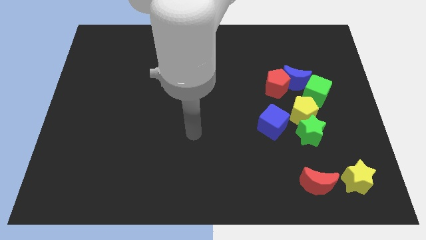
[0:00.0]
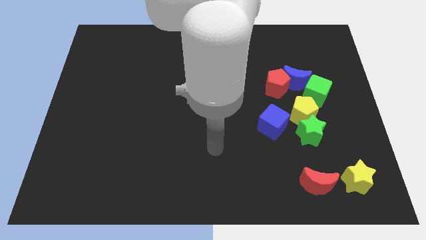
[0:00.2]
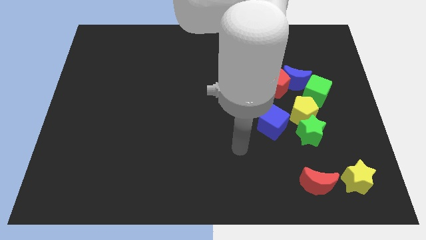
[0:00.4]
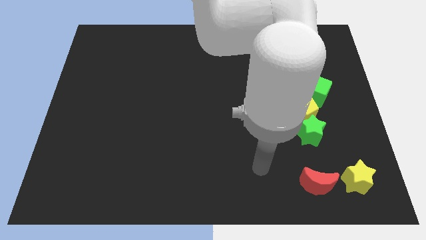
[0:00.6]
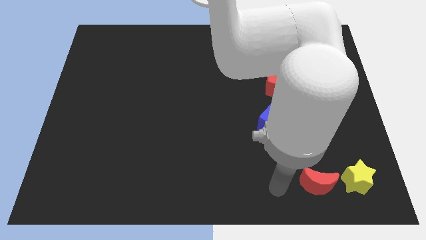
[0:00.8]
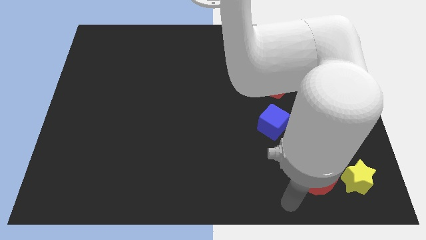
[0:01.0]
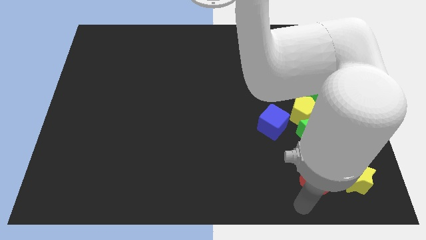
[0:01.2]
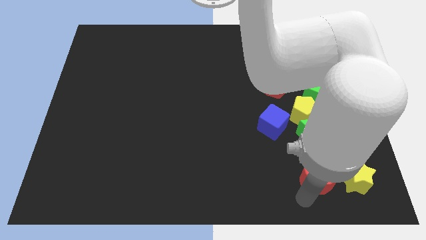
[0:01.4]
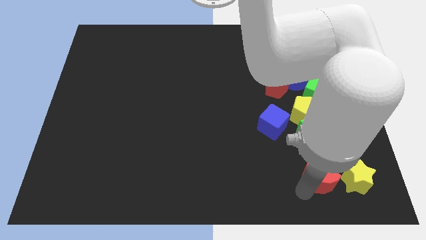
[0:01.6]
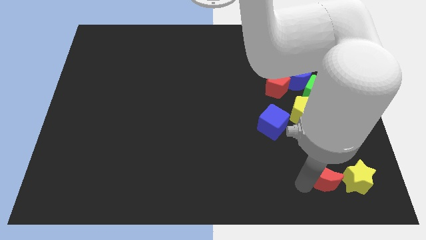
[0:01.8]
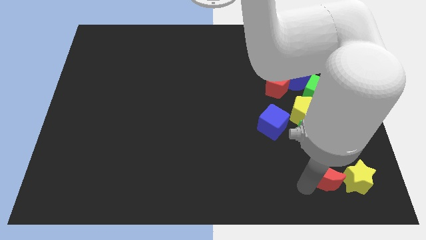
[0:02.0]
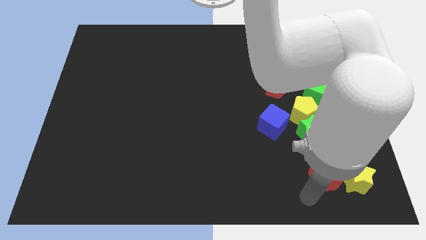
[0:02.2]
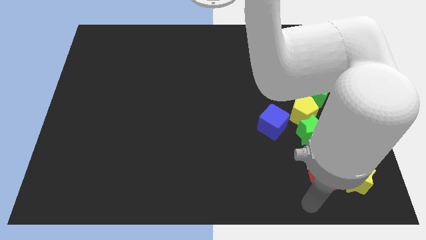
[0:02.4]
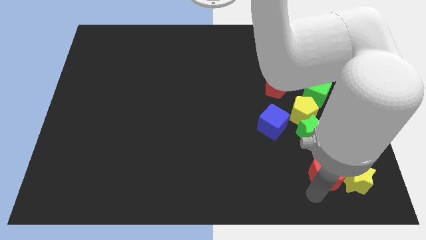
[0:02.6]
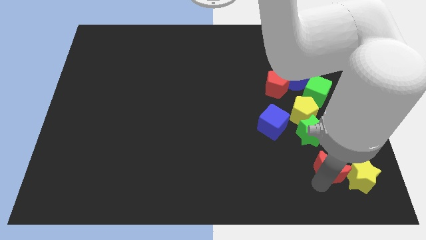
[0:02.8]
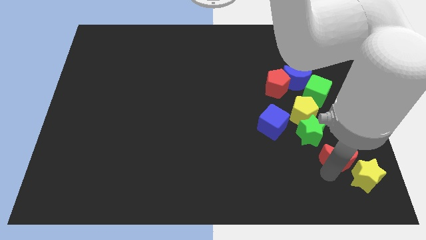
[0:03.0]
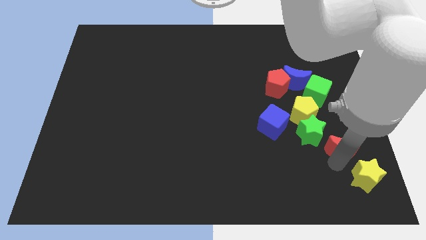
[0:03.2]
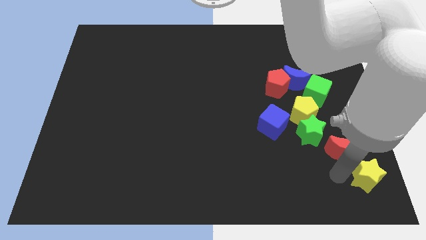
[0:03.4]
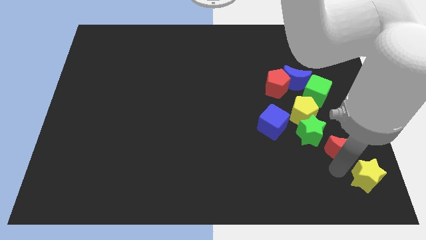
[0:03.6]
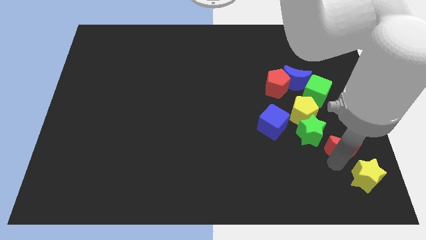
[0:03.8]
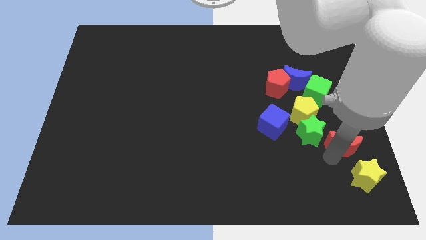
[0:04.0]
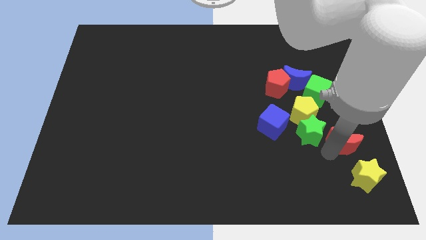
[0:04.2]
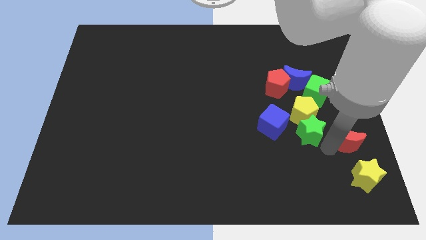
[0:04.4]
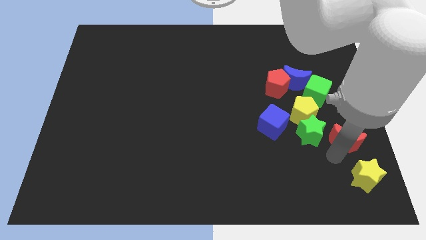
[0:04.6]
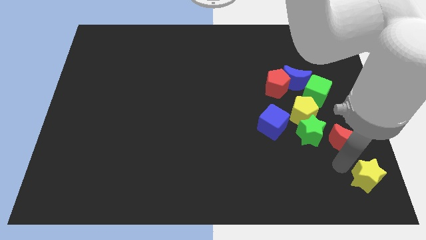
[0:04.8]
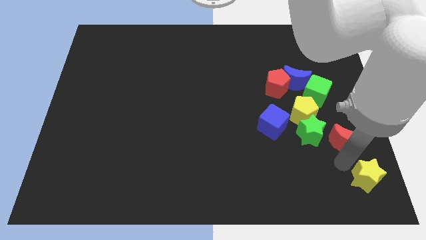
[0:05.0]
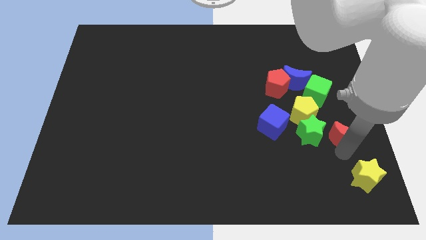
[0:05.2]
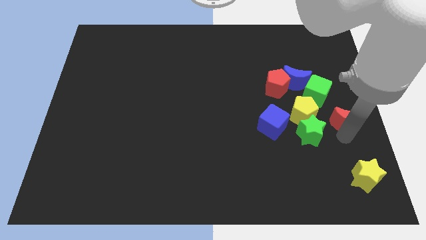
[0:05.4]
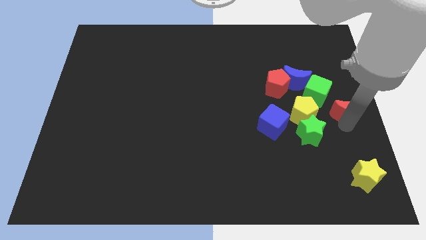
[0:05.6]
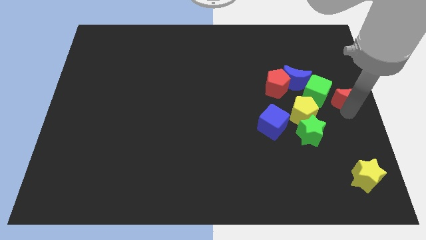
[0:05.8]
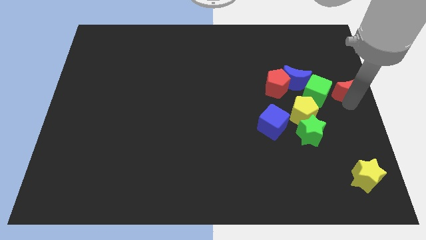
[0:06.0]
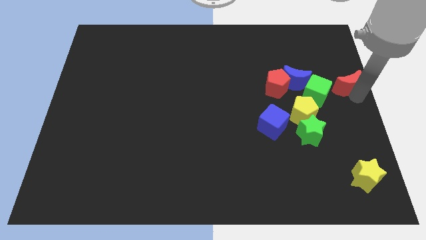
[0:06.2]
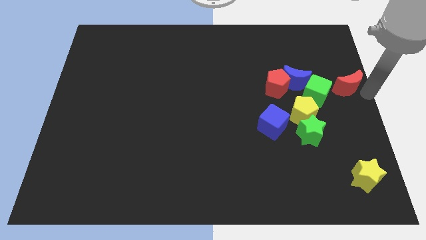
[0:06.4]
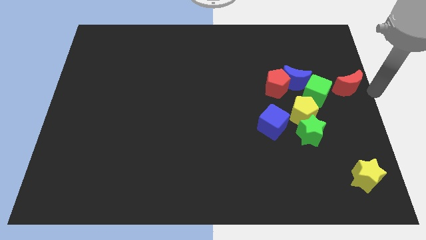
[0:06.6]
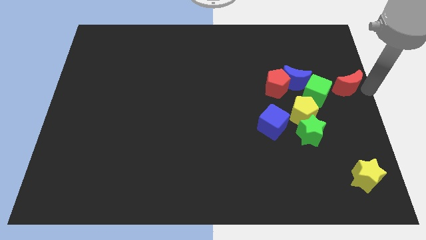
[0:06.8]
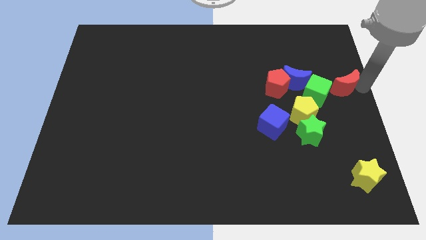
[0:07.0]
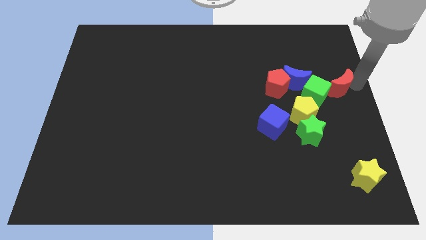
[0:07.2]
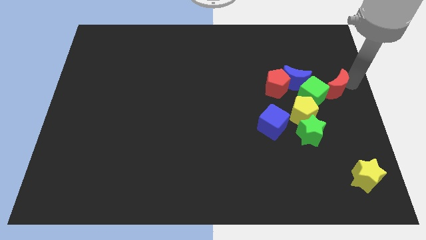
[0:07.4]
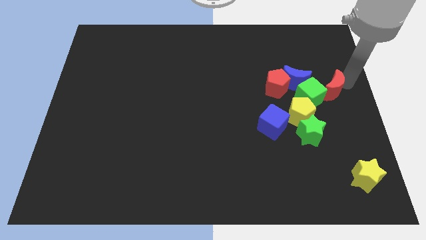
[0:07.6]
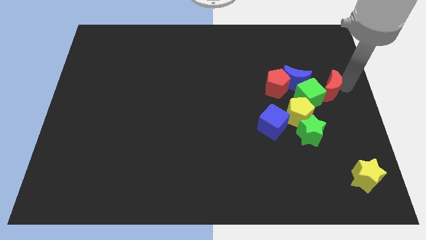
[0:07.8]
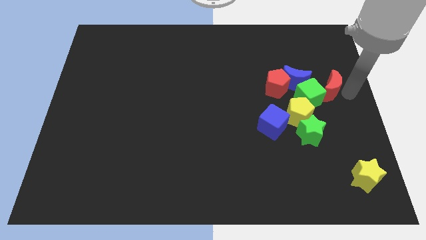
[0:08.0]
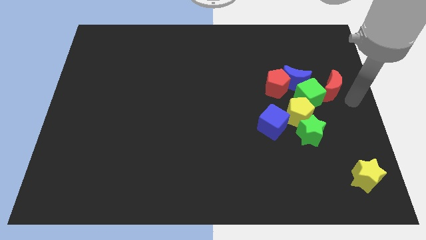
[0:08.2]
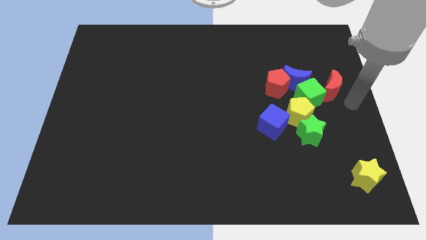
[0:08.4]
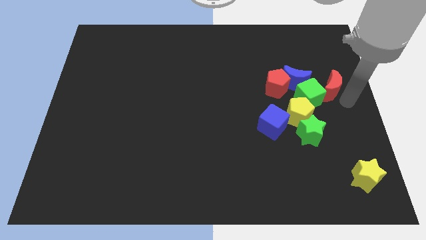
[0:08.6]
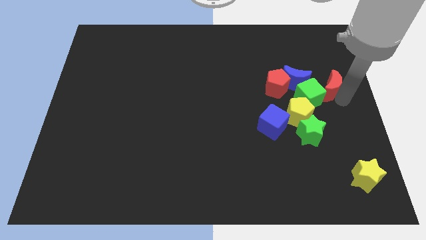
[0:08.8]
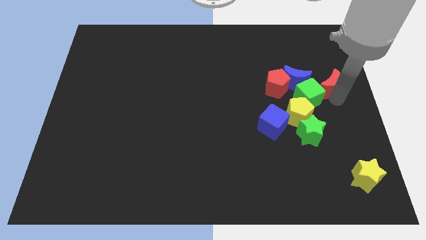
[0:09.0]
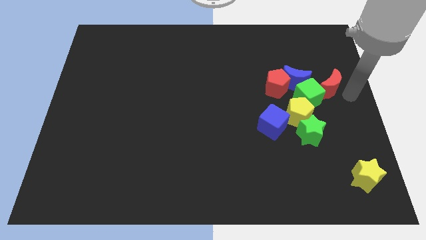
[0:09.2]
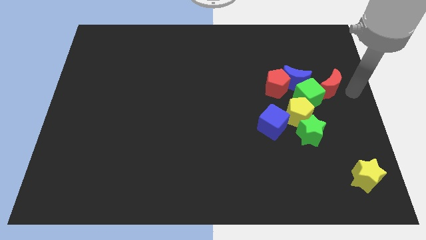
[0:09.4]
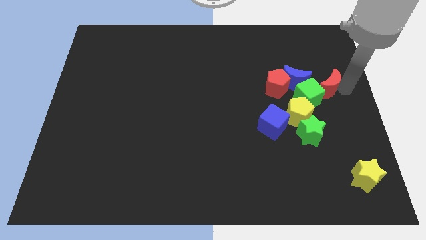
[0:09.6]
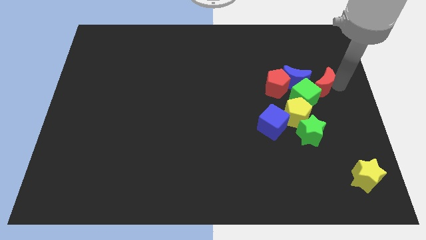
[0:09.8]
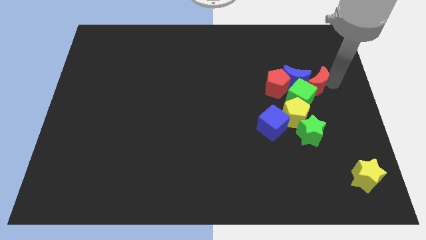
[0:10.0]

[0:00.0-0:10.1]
push the red moon towards the blue moon
